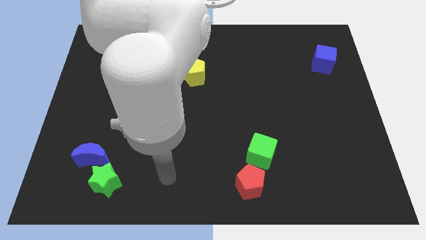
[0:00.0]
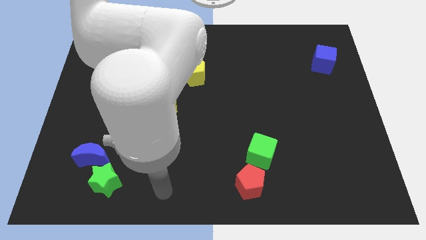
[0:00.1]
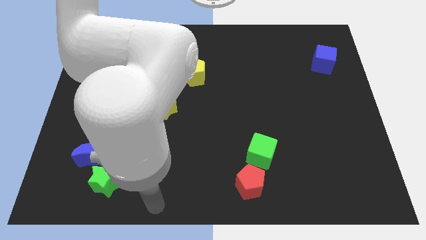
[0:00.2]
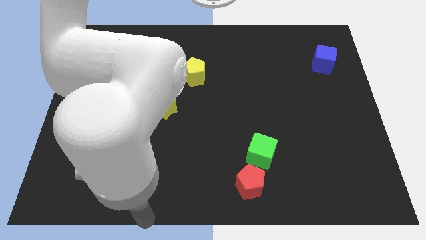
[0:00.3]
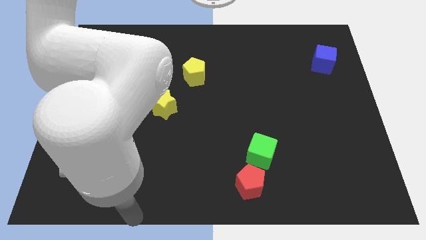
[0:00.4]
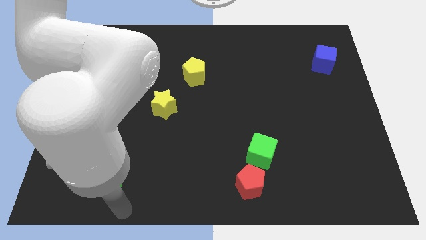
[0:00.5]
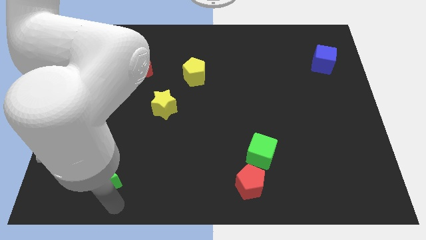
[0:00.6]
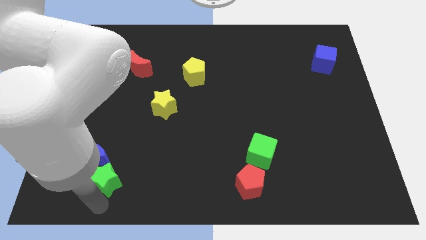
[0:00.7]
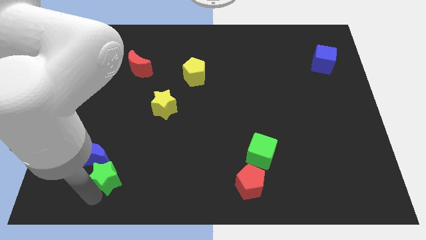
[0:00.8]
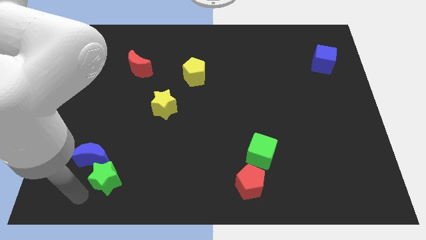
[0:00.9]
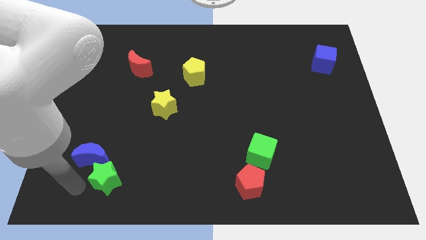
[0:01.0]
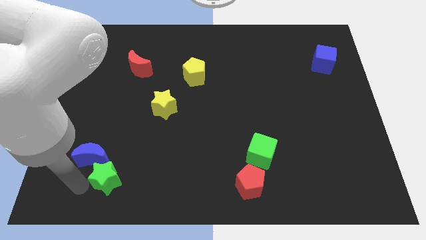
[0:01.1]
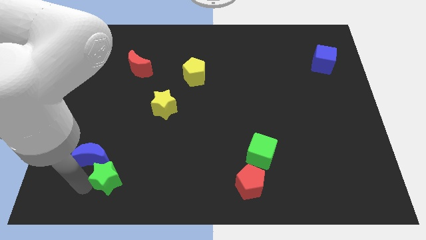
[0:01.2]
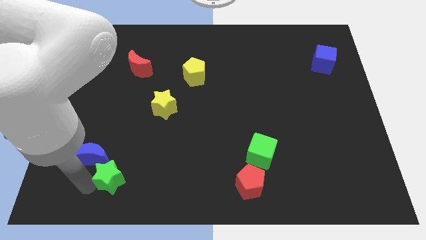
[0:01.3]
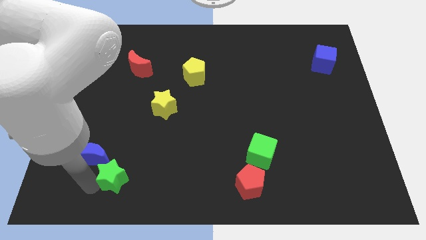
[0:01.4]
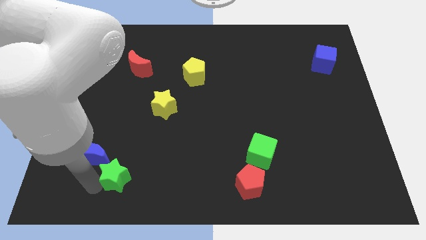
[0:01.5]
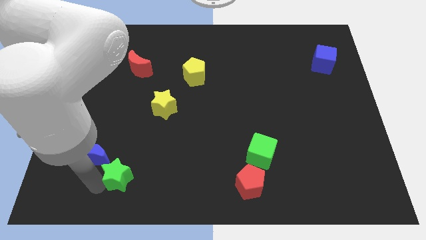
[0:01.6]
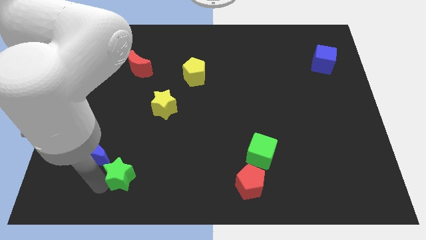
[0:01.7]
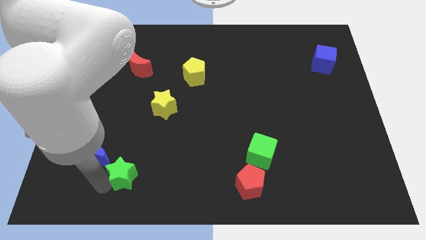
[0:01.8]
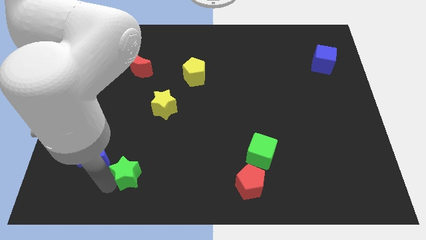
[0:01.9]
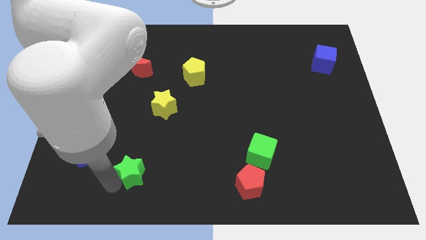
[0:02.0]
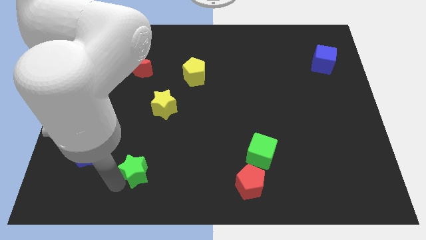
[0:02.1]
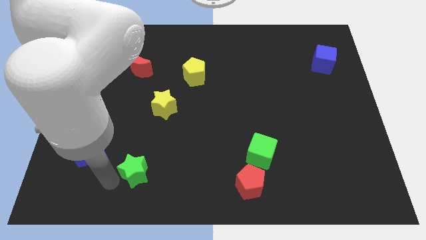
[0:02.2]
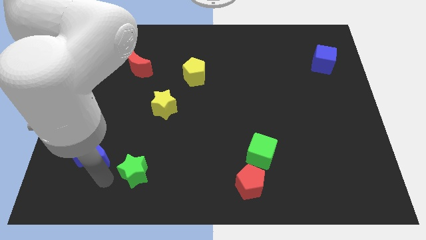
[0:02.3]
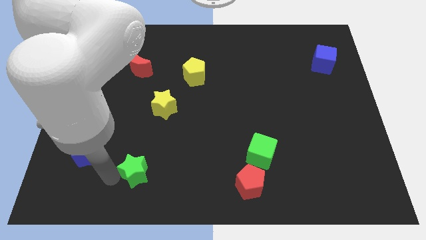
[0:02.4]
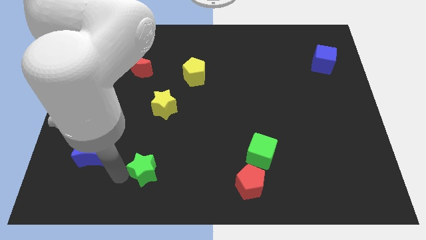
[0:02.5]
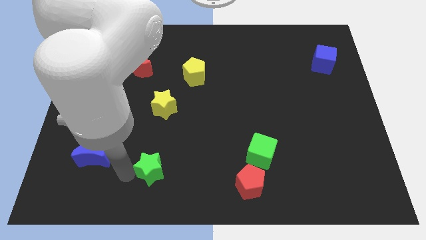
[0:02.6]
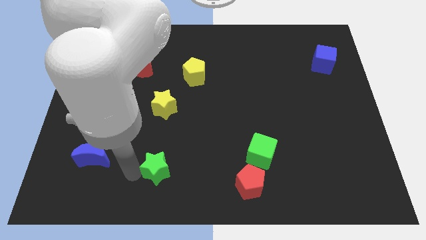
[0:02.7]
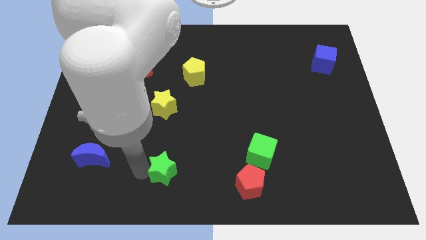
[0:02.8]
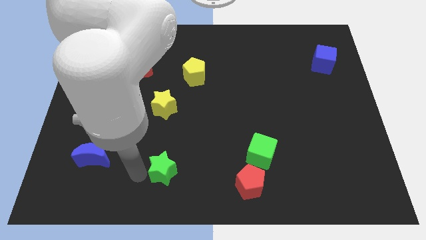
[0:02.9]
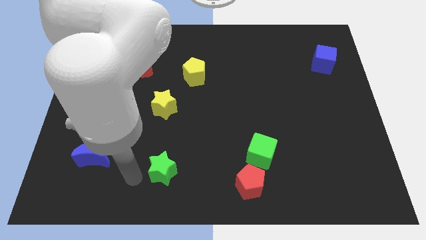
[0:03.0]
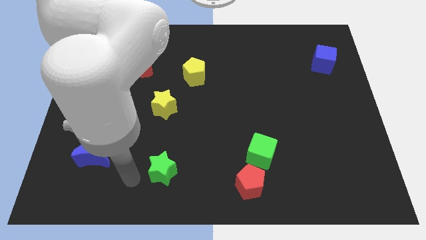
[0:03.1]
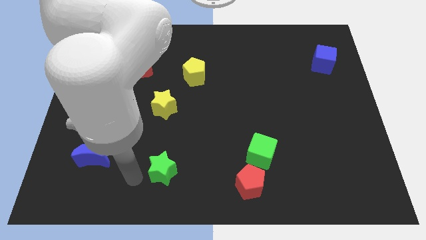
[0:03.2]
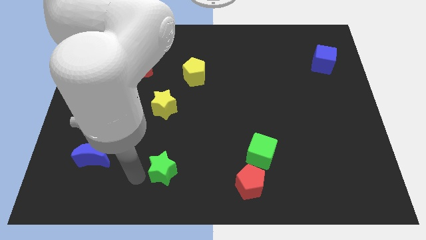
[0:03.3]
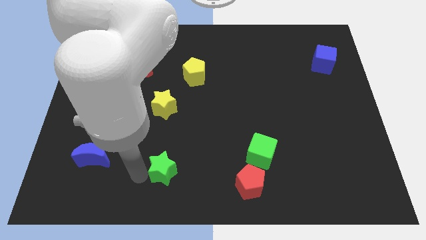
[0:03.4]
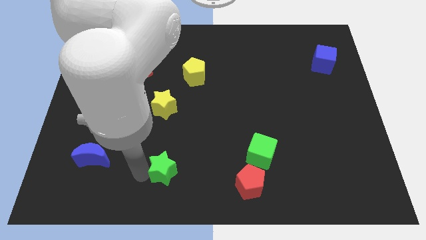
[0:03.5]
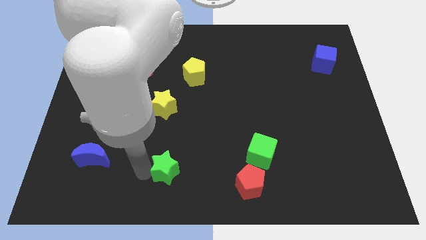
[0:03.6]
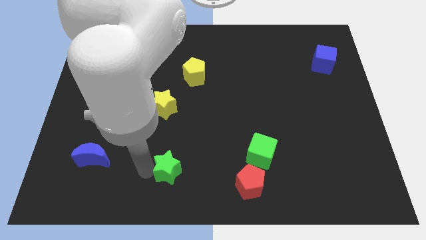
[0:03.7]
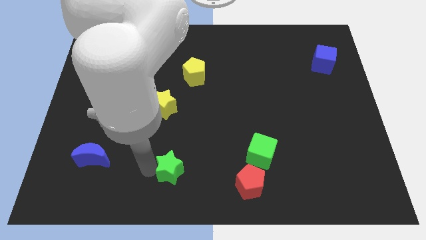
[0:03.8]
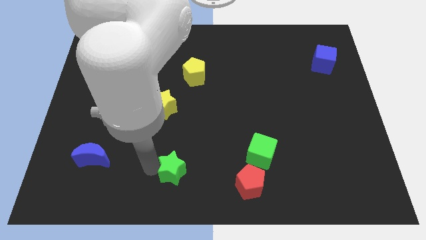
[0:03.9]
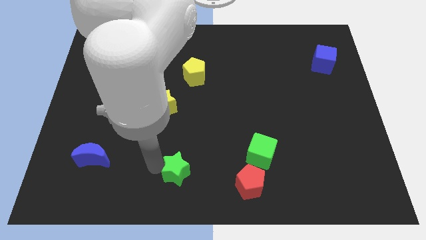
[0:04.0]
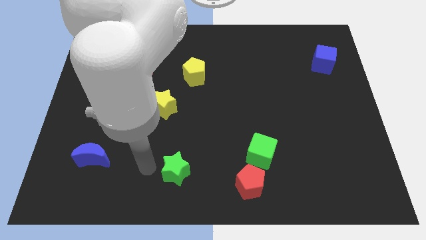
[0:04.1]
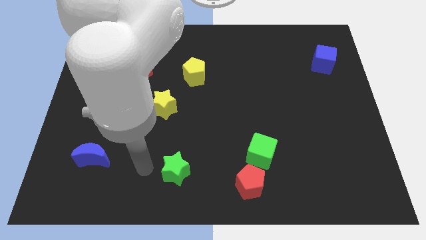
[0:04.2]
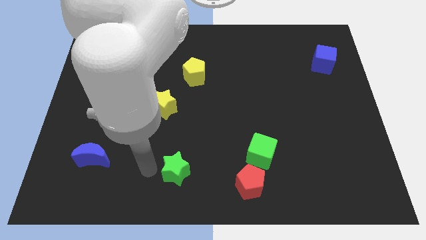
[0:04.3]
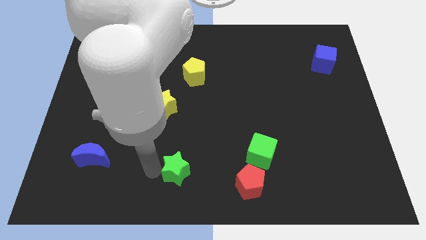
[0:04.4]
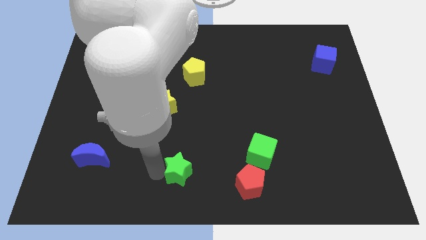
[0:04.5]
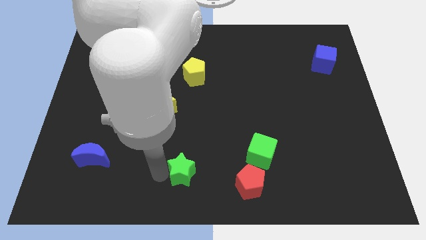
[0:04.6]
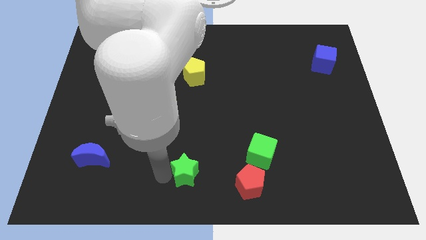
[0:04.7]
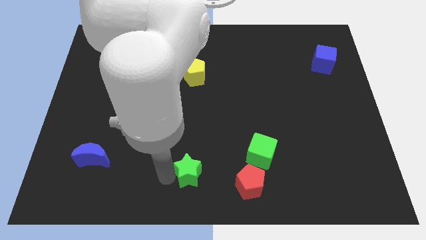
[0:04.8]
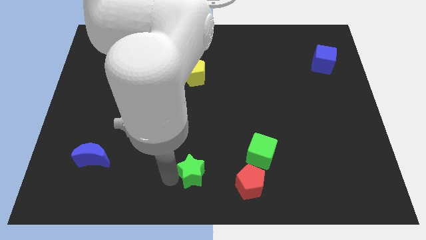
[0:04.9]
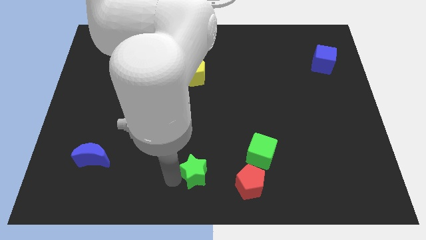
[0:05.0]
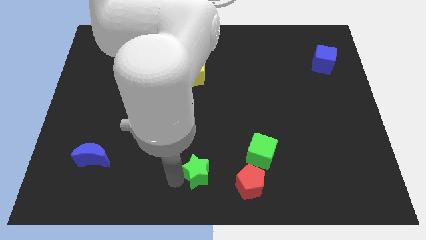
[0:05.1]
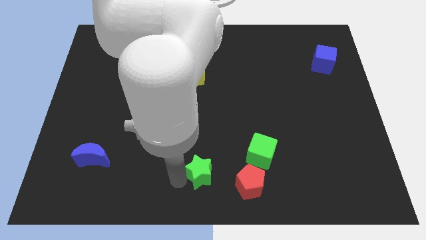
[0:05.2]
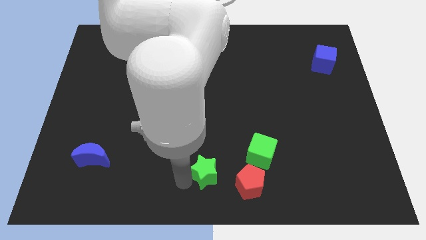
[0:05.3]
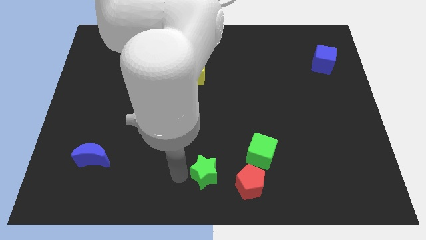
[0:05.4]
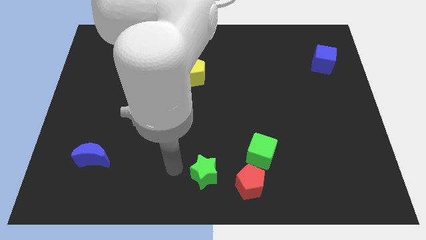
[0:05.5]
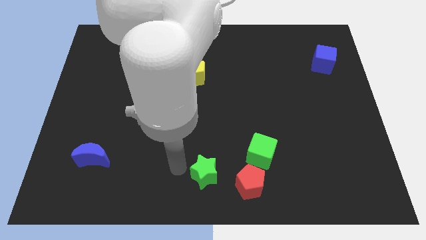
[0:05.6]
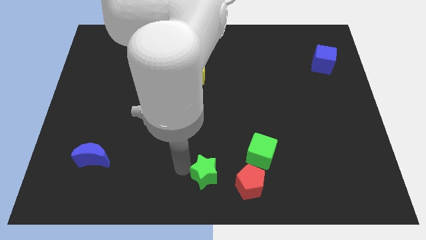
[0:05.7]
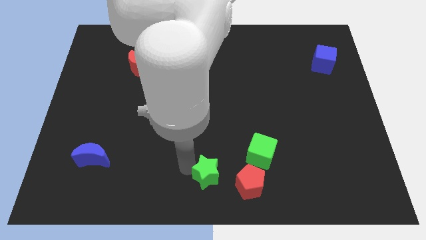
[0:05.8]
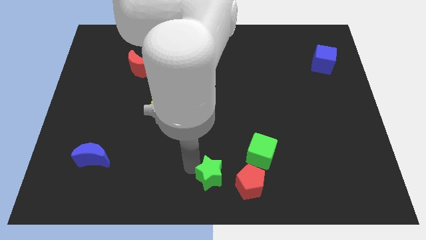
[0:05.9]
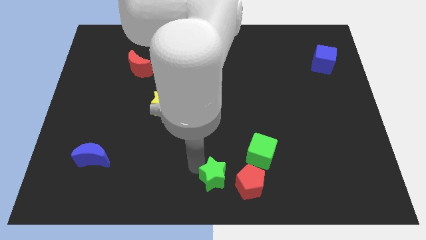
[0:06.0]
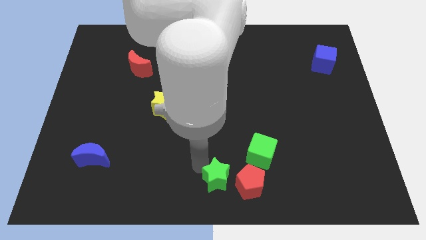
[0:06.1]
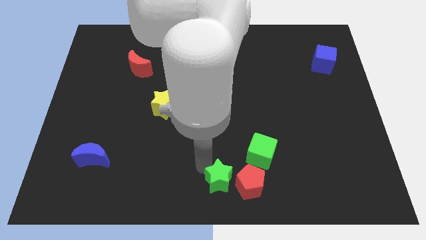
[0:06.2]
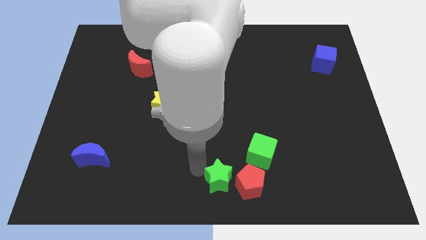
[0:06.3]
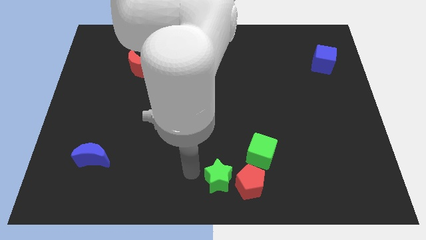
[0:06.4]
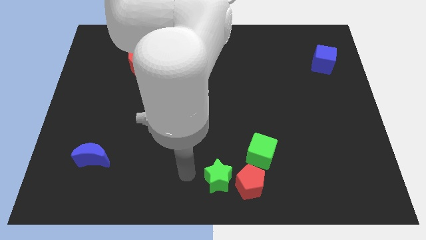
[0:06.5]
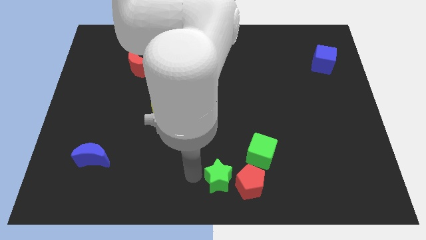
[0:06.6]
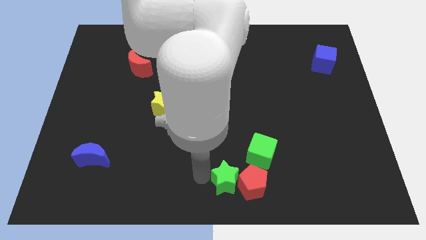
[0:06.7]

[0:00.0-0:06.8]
slide the green star next to the red pentagon
